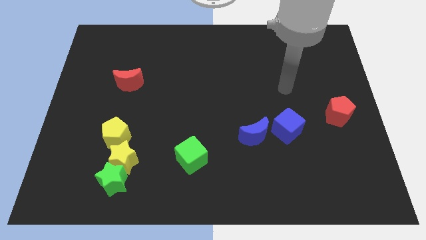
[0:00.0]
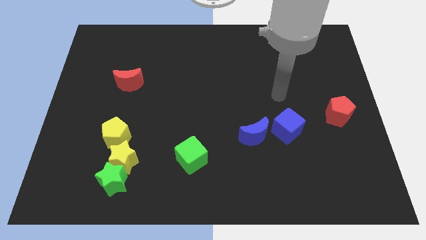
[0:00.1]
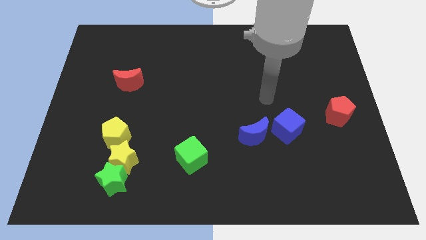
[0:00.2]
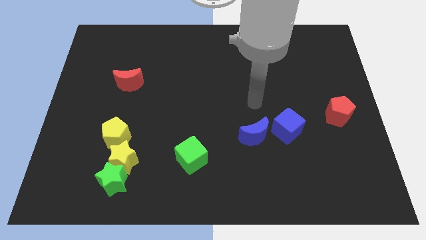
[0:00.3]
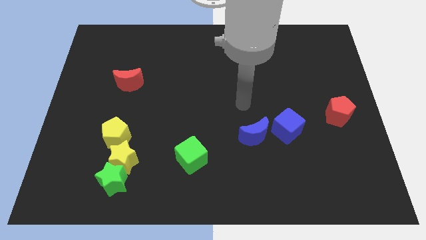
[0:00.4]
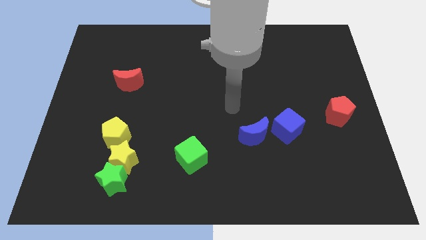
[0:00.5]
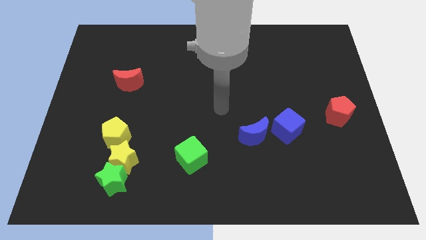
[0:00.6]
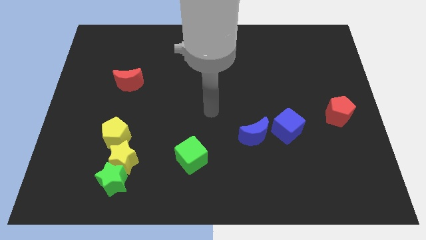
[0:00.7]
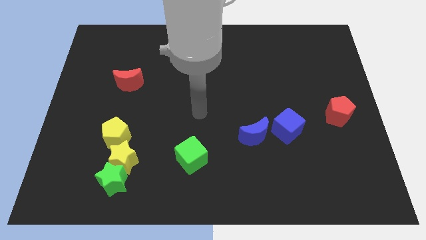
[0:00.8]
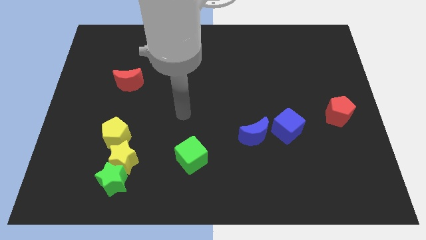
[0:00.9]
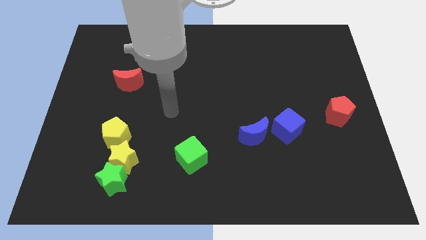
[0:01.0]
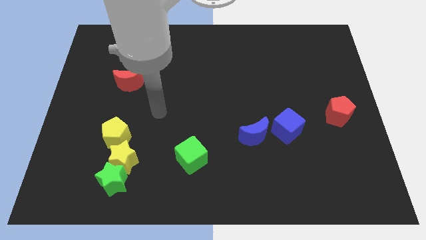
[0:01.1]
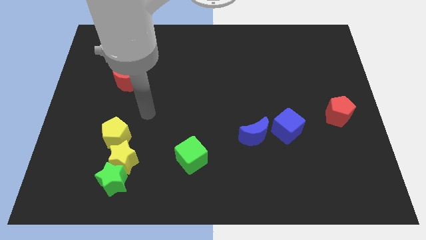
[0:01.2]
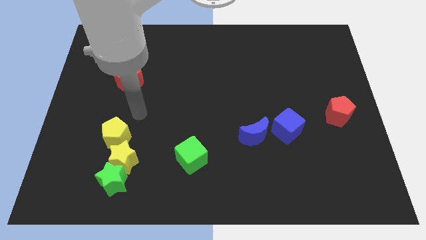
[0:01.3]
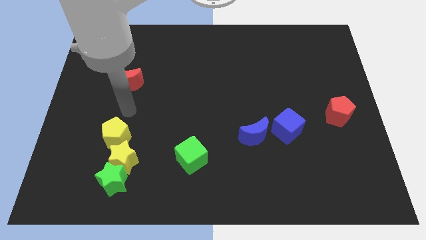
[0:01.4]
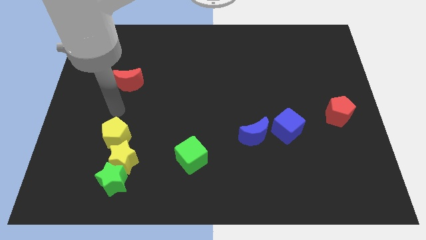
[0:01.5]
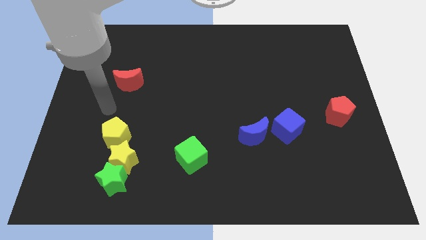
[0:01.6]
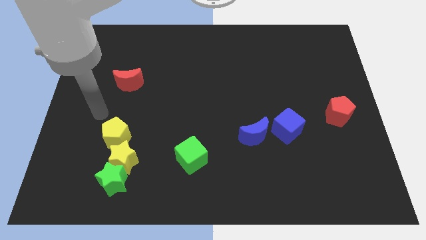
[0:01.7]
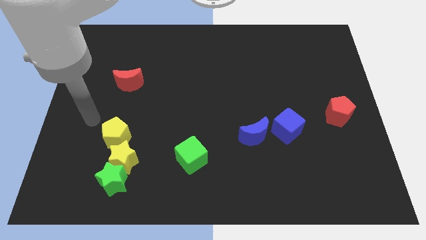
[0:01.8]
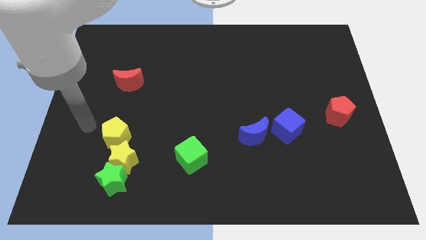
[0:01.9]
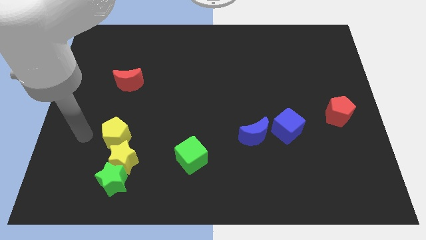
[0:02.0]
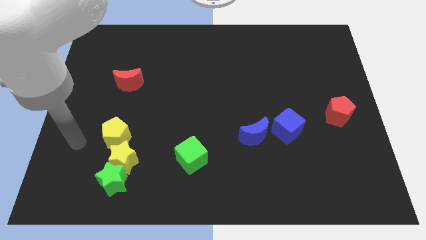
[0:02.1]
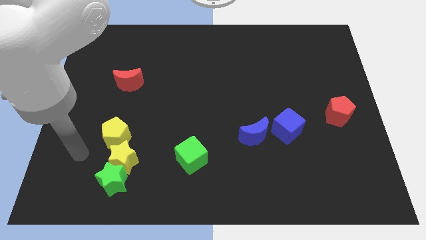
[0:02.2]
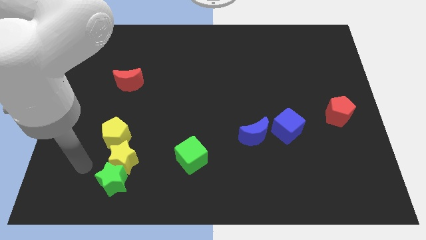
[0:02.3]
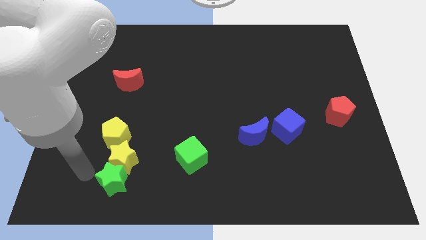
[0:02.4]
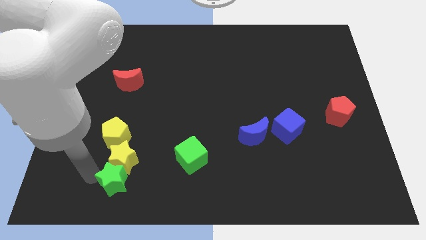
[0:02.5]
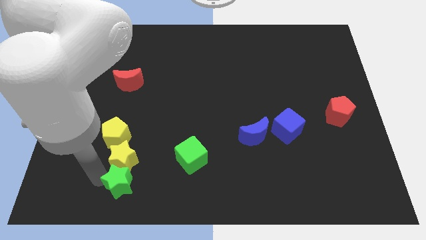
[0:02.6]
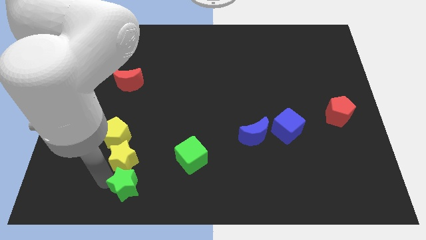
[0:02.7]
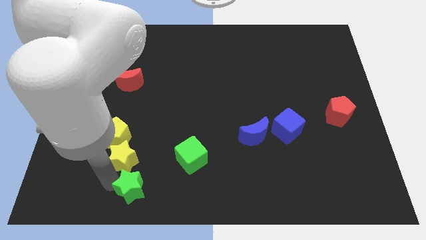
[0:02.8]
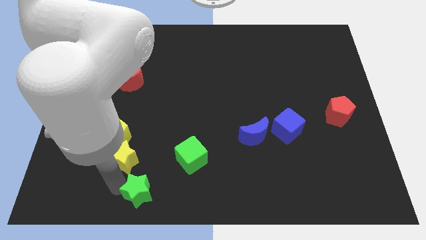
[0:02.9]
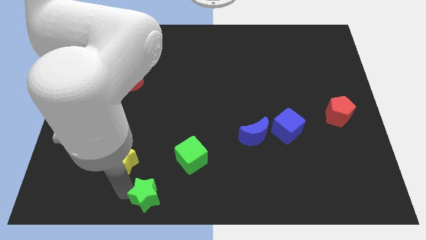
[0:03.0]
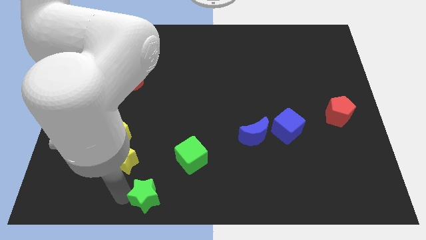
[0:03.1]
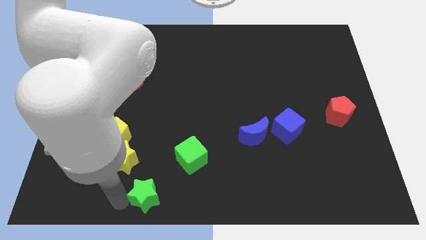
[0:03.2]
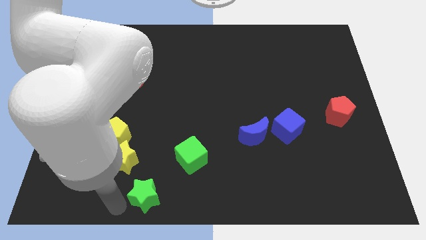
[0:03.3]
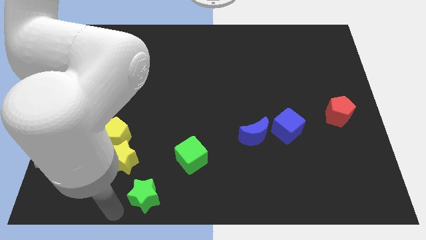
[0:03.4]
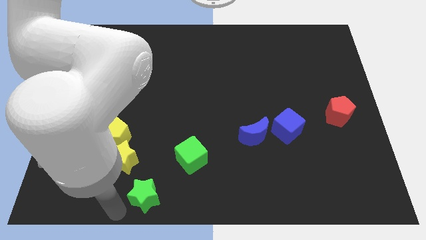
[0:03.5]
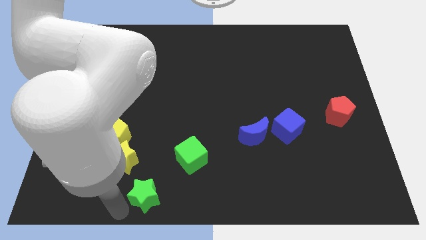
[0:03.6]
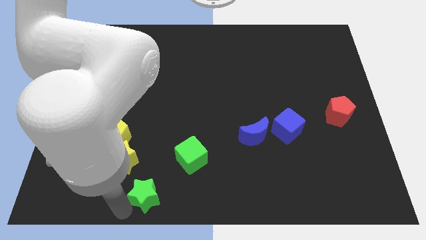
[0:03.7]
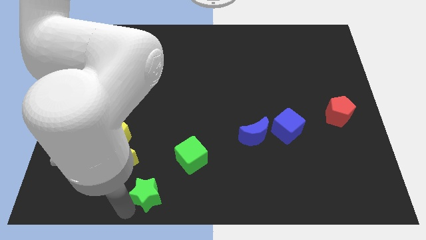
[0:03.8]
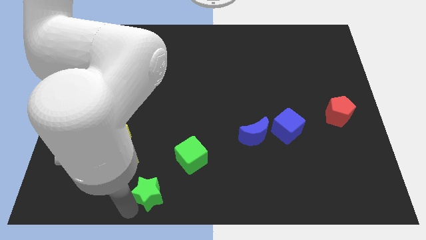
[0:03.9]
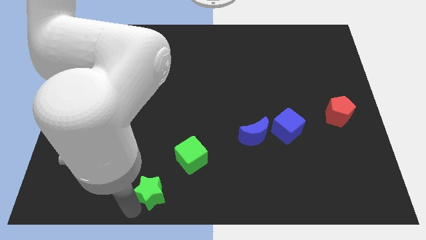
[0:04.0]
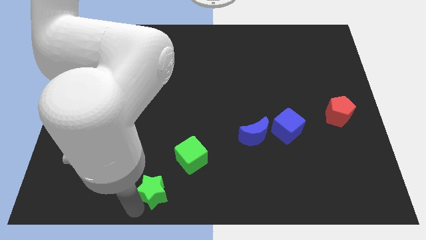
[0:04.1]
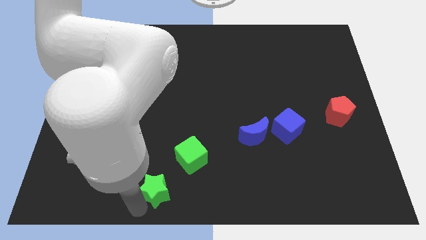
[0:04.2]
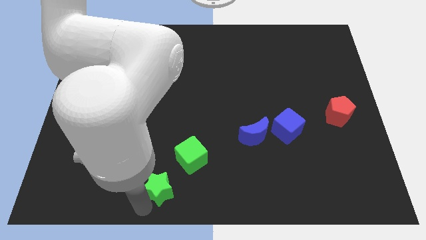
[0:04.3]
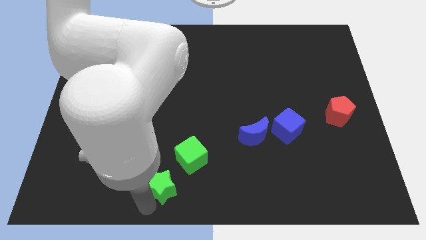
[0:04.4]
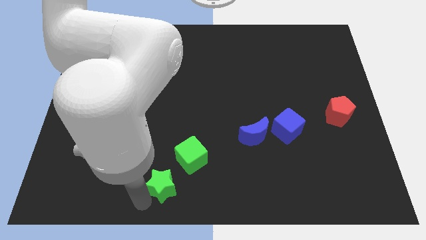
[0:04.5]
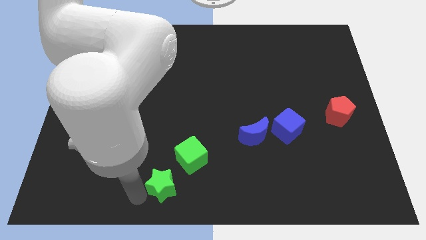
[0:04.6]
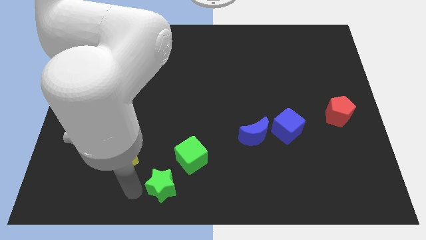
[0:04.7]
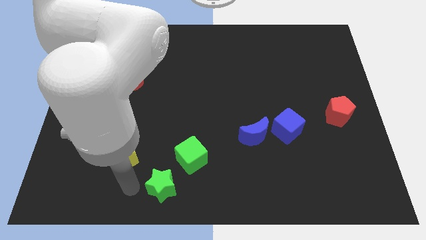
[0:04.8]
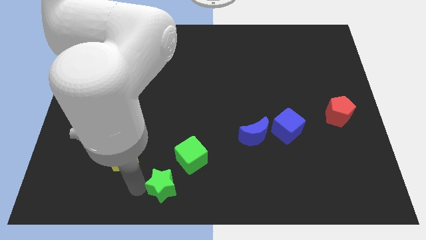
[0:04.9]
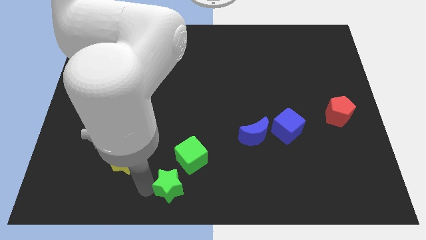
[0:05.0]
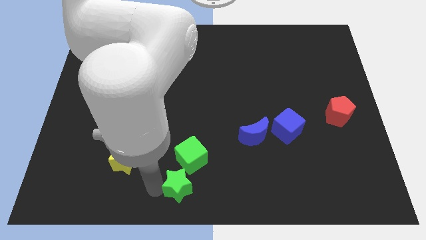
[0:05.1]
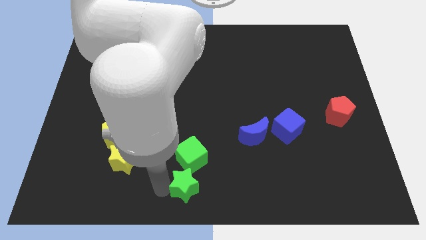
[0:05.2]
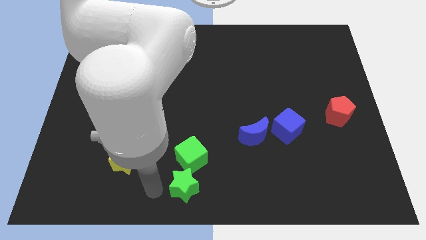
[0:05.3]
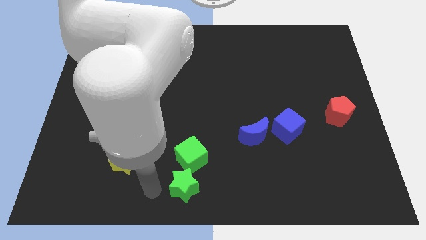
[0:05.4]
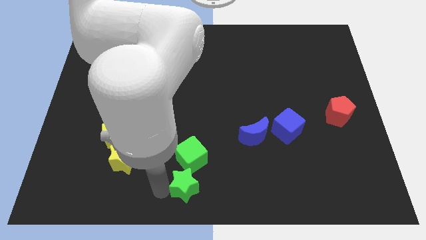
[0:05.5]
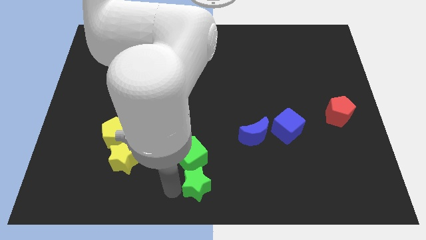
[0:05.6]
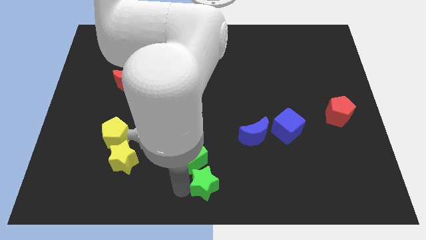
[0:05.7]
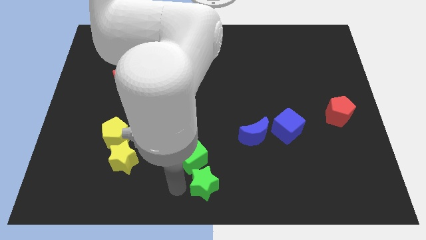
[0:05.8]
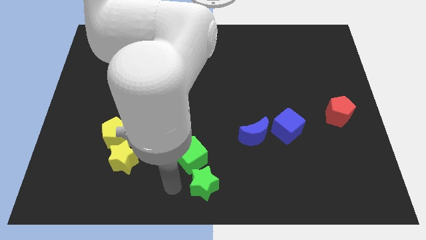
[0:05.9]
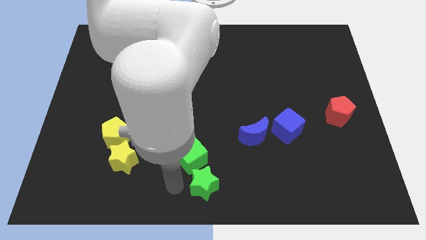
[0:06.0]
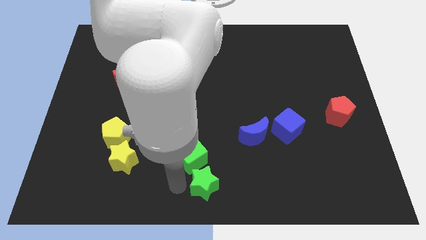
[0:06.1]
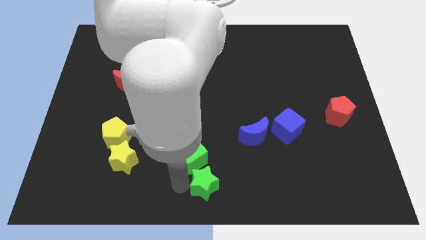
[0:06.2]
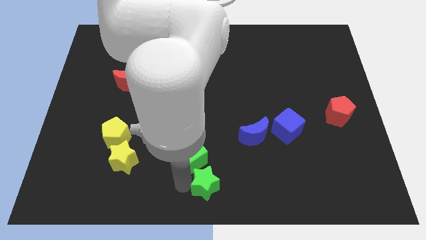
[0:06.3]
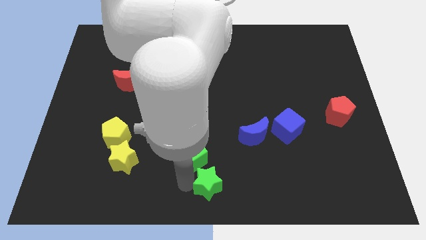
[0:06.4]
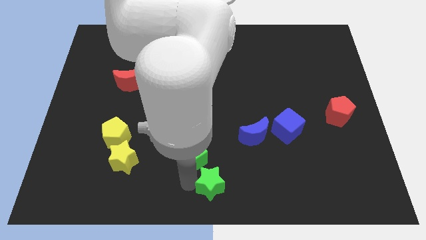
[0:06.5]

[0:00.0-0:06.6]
push the green star to the right

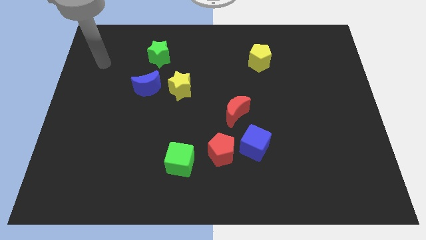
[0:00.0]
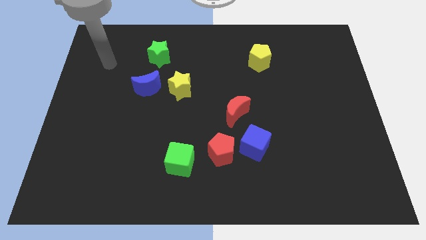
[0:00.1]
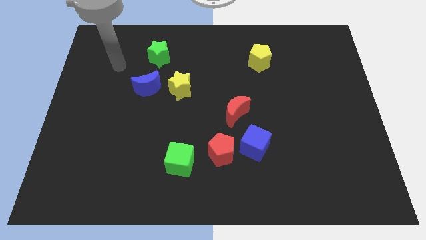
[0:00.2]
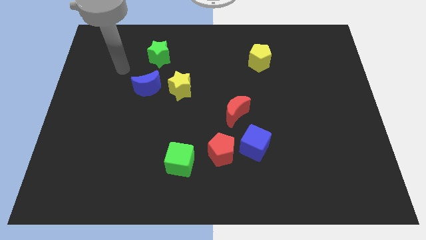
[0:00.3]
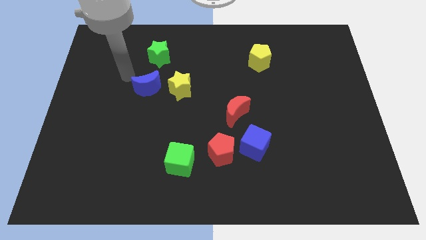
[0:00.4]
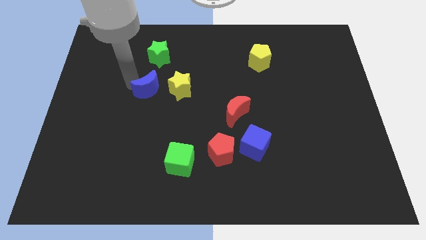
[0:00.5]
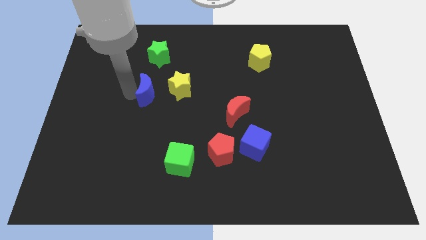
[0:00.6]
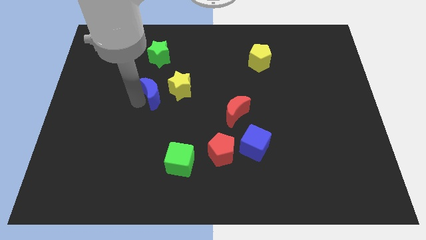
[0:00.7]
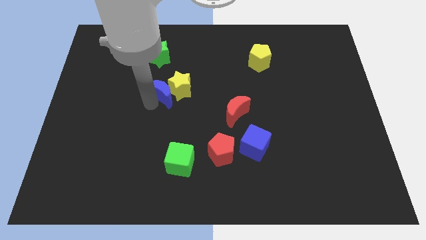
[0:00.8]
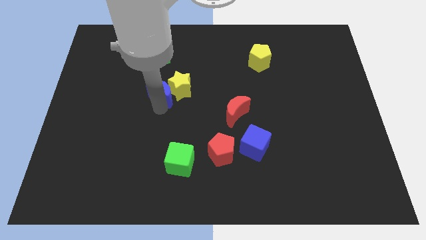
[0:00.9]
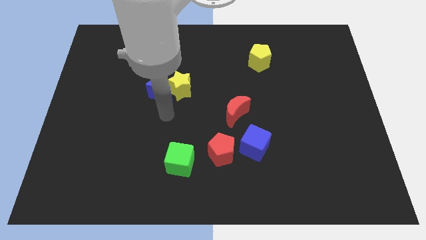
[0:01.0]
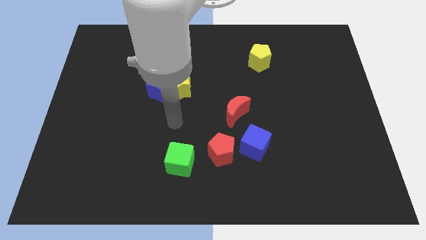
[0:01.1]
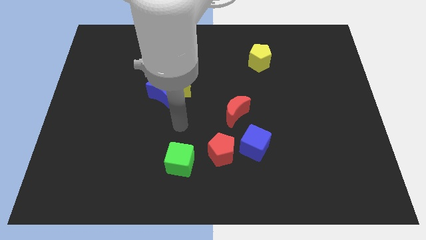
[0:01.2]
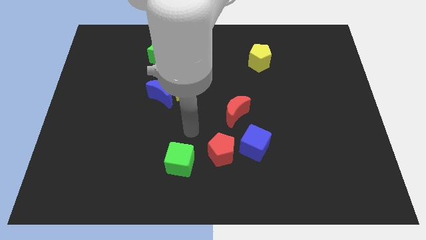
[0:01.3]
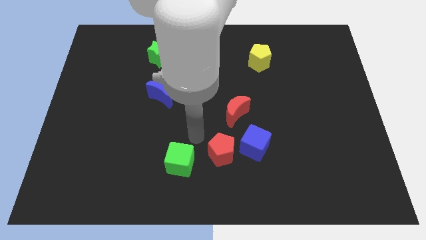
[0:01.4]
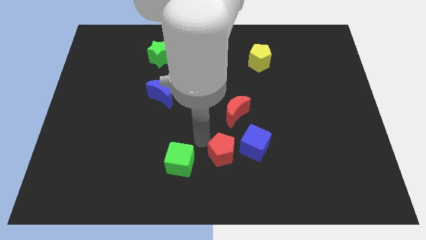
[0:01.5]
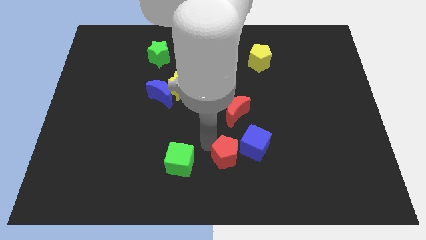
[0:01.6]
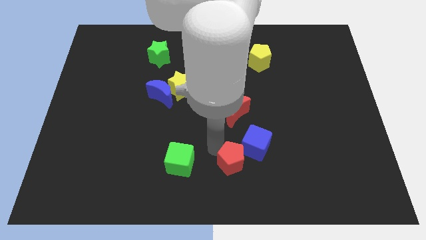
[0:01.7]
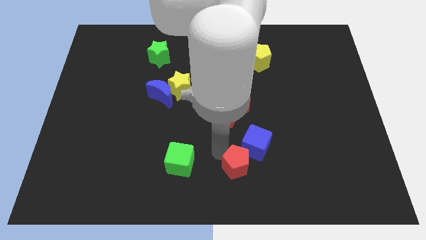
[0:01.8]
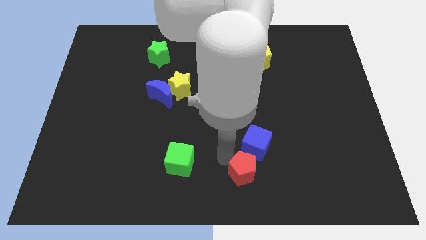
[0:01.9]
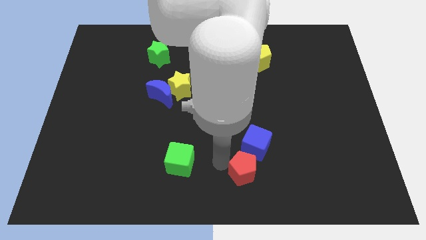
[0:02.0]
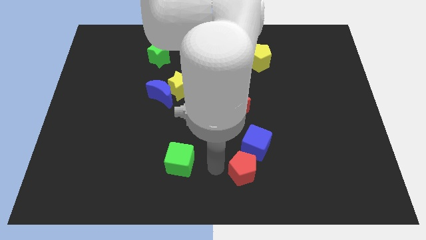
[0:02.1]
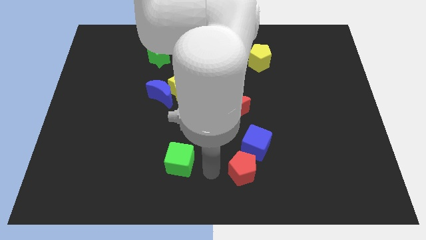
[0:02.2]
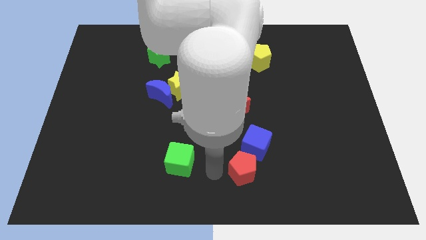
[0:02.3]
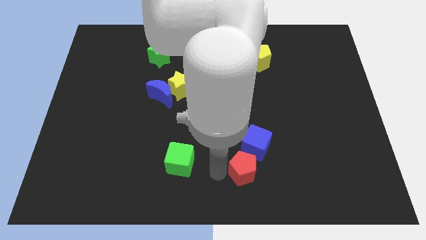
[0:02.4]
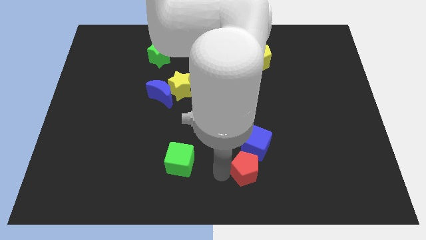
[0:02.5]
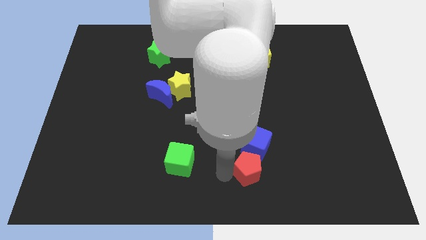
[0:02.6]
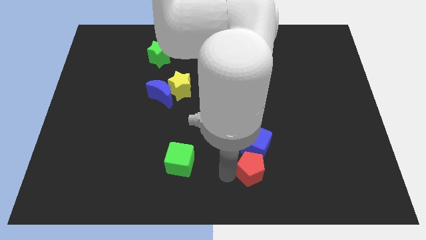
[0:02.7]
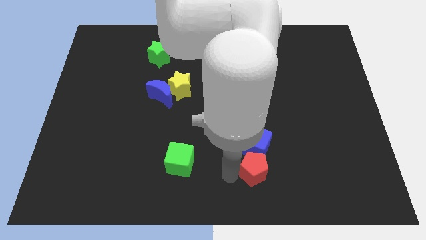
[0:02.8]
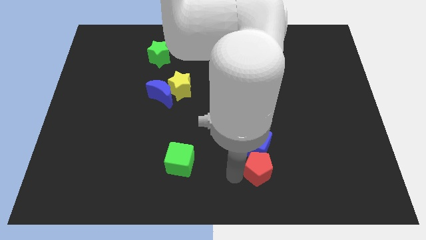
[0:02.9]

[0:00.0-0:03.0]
move the red pentagon a little to the right
